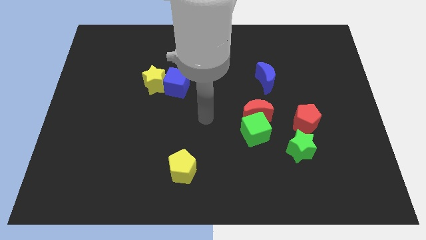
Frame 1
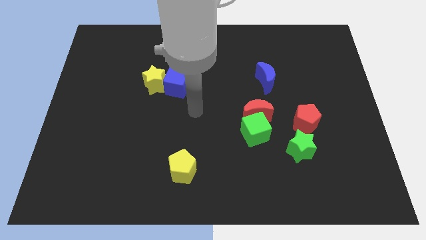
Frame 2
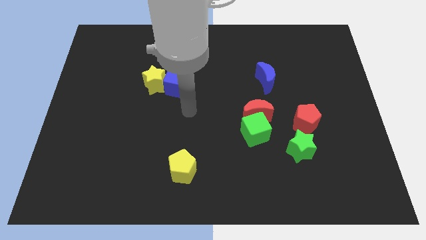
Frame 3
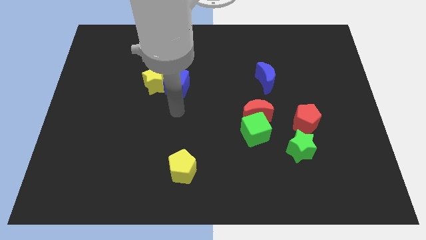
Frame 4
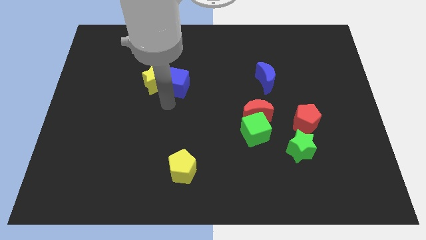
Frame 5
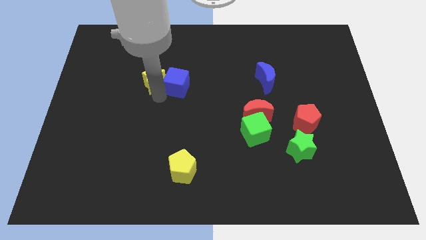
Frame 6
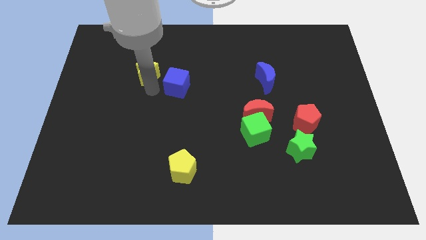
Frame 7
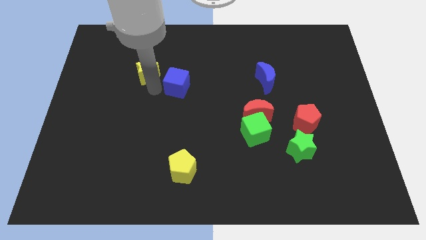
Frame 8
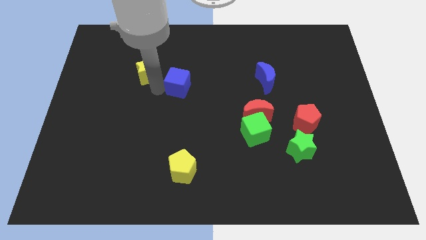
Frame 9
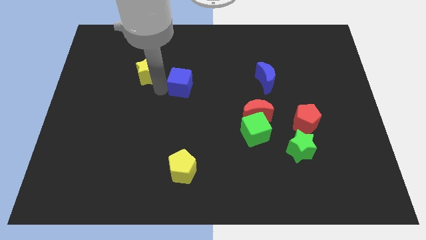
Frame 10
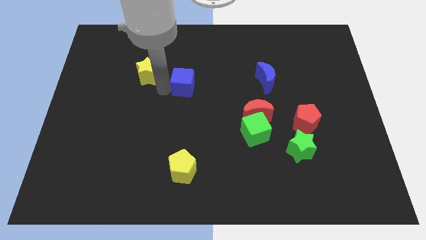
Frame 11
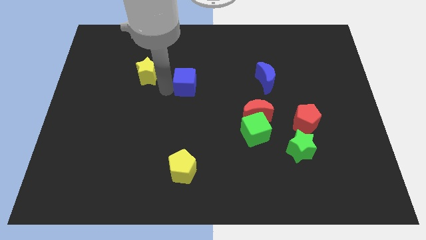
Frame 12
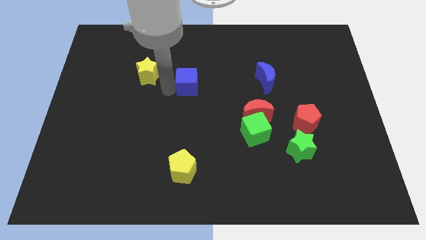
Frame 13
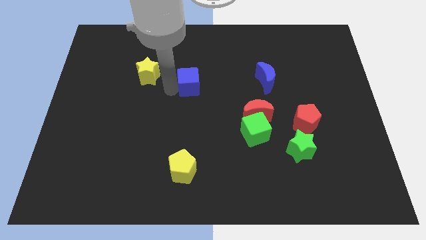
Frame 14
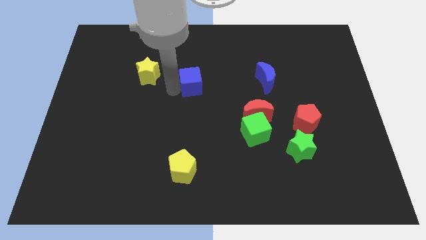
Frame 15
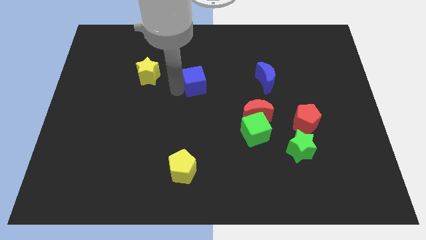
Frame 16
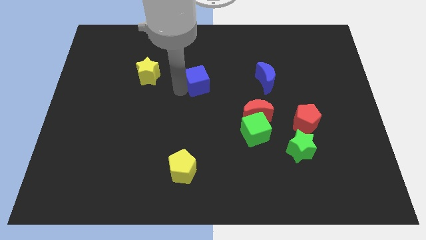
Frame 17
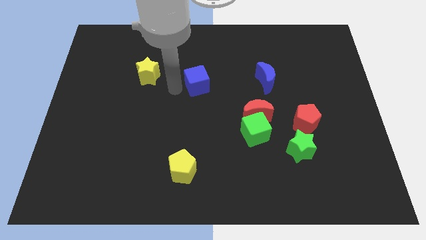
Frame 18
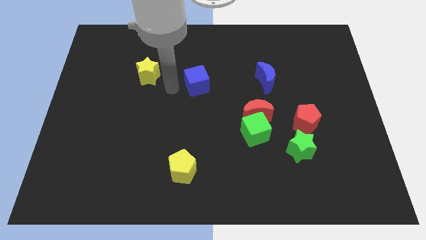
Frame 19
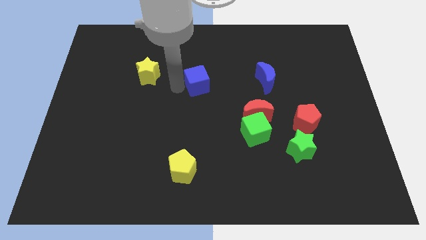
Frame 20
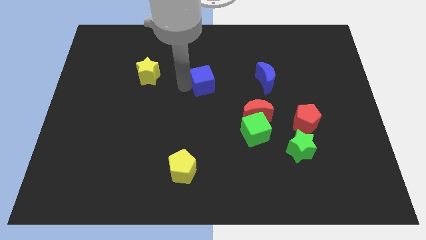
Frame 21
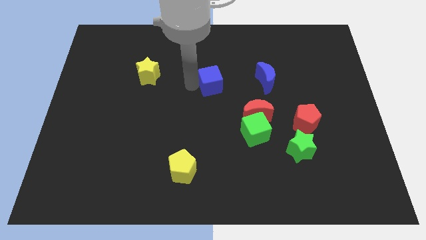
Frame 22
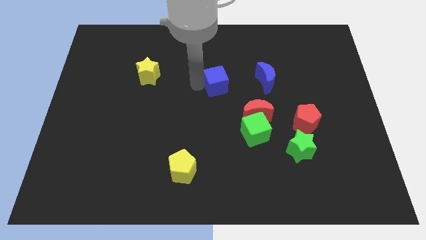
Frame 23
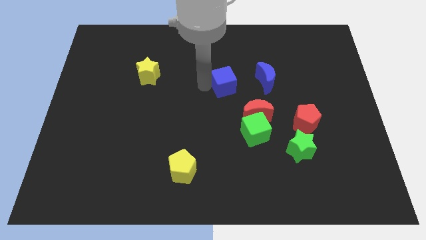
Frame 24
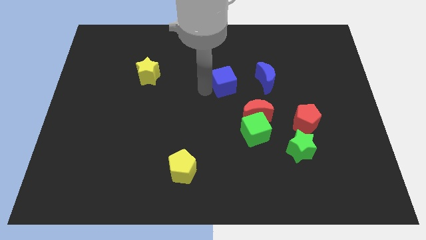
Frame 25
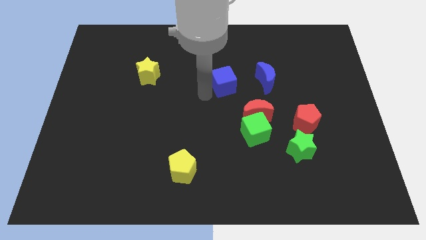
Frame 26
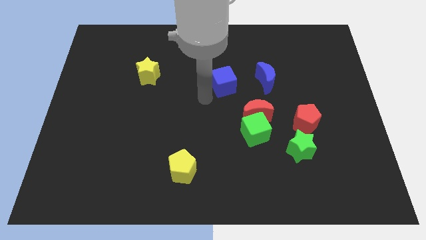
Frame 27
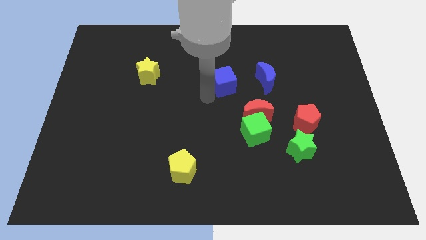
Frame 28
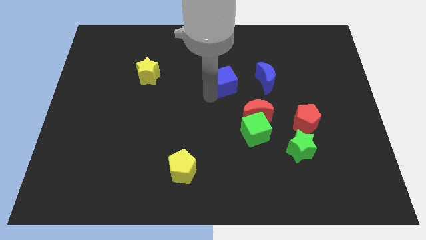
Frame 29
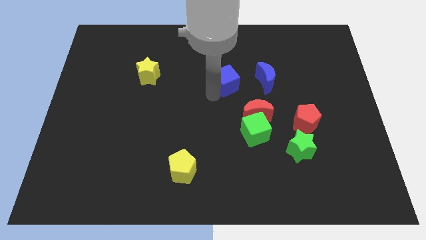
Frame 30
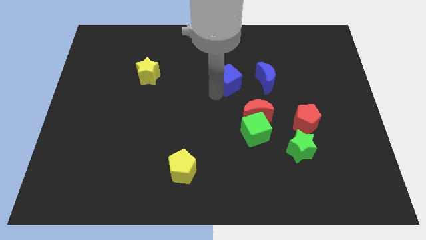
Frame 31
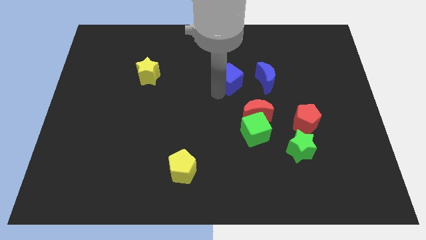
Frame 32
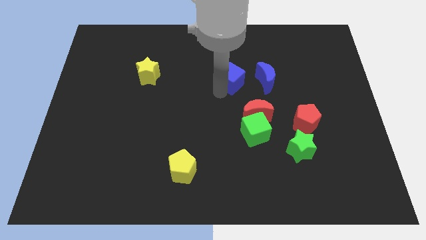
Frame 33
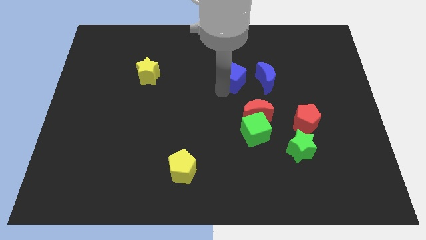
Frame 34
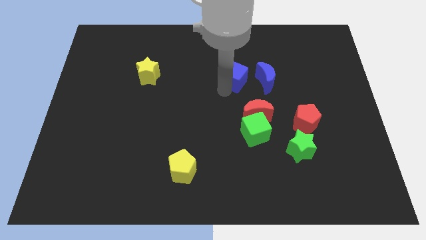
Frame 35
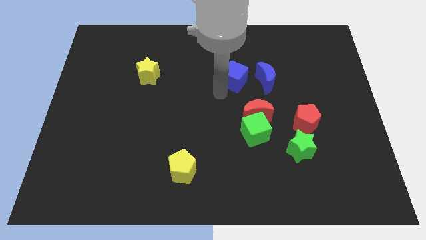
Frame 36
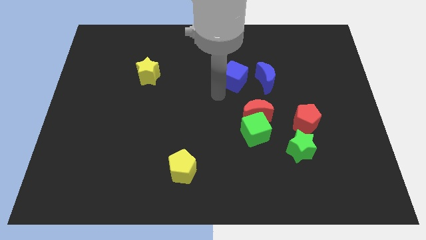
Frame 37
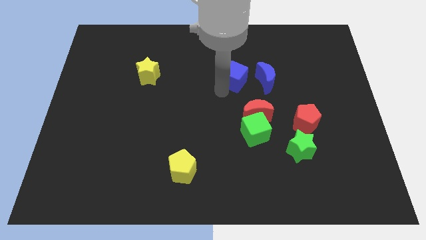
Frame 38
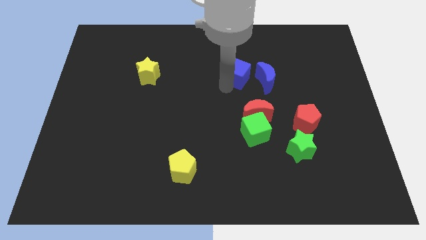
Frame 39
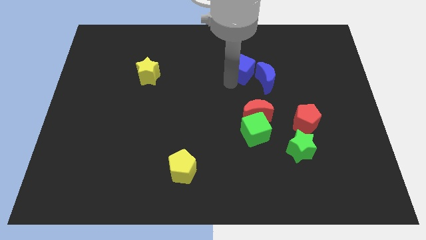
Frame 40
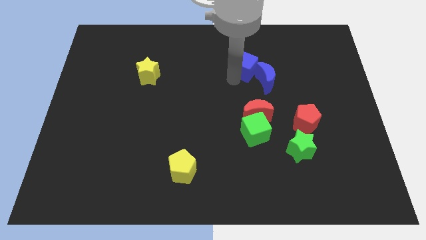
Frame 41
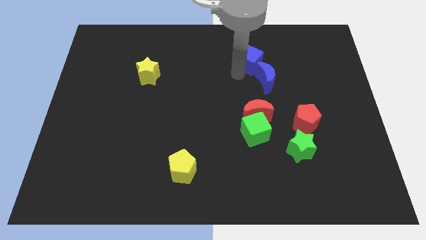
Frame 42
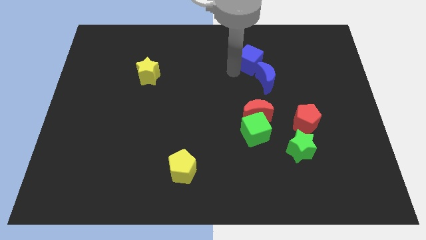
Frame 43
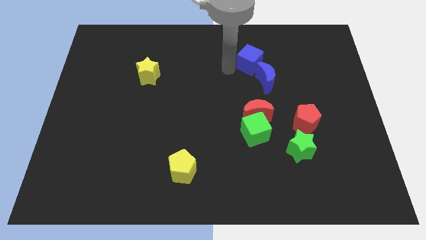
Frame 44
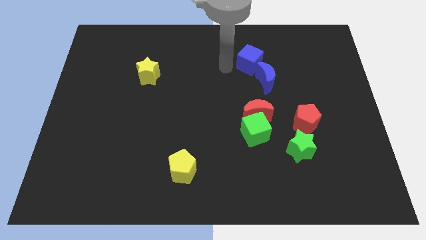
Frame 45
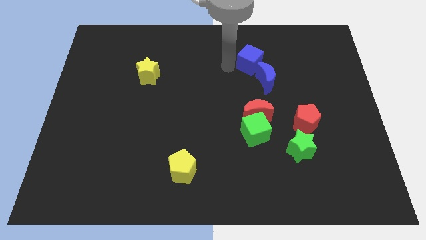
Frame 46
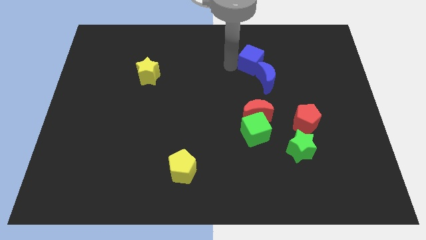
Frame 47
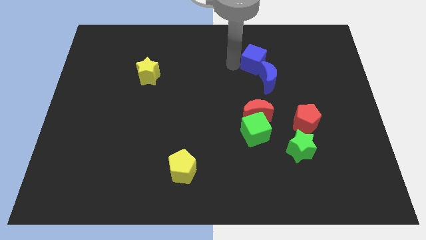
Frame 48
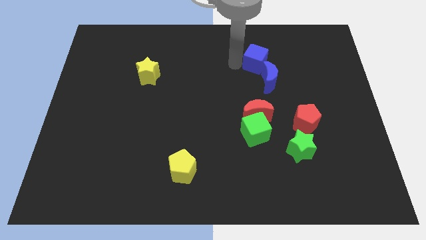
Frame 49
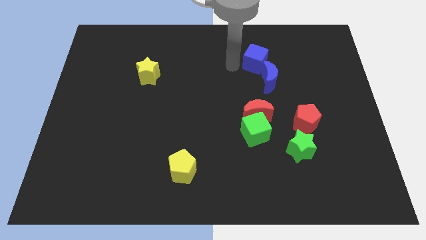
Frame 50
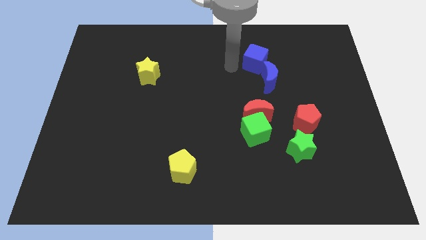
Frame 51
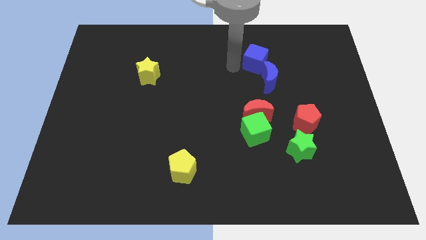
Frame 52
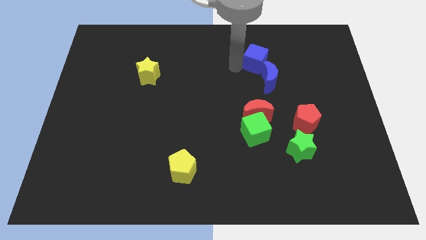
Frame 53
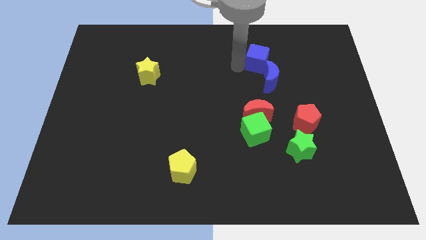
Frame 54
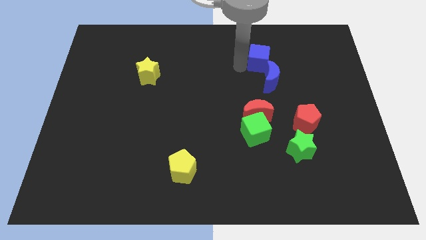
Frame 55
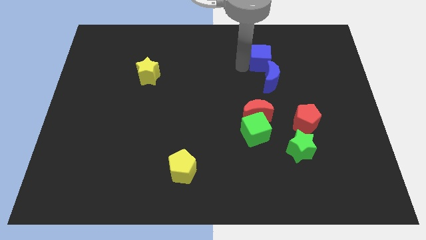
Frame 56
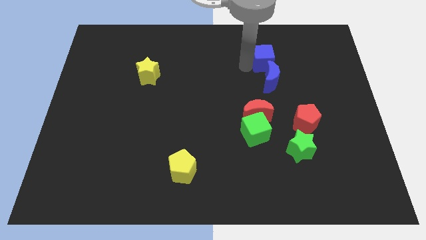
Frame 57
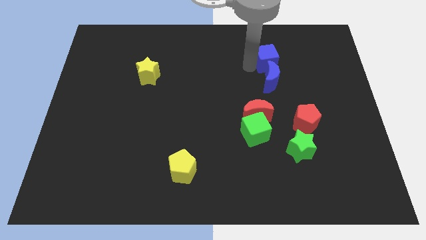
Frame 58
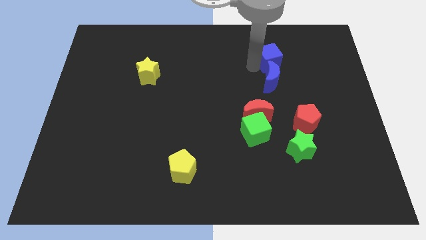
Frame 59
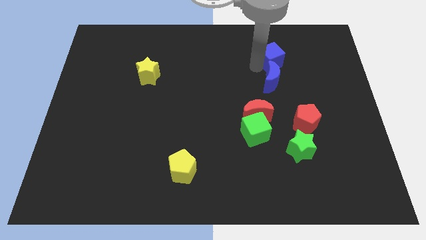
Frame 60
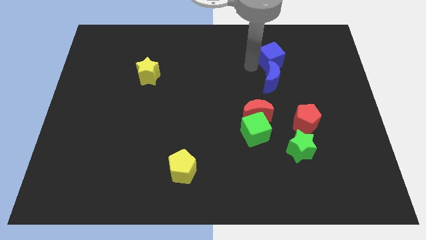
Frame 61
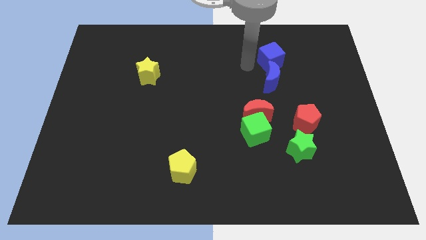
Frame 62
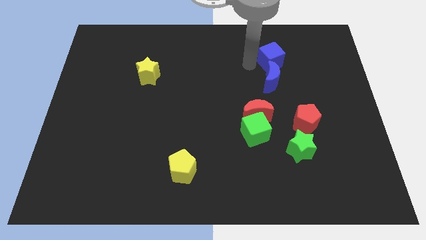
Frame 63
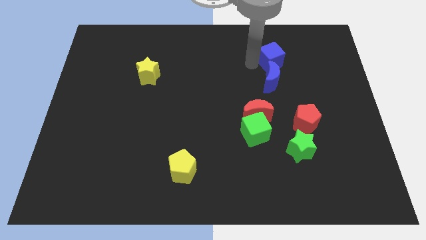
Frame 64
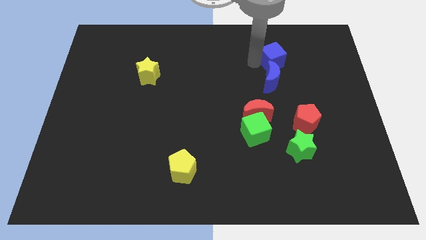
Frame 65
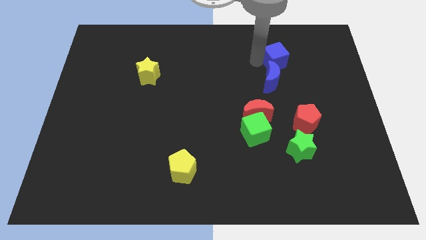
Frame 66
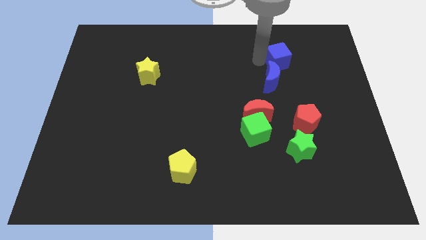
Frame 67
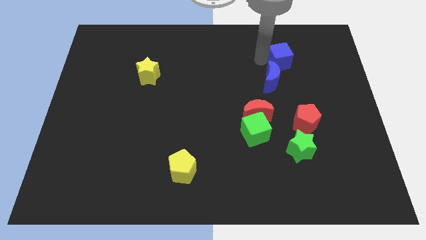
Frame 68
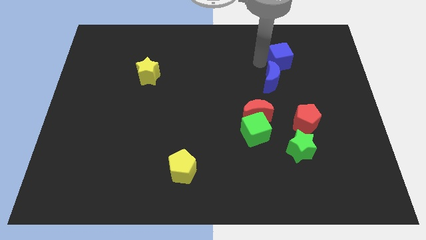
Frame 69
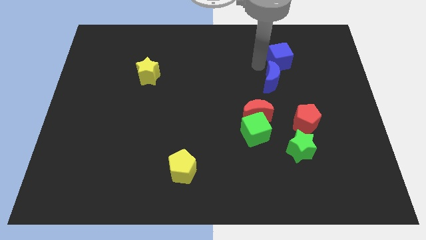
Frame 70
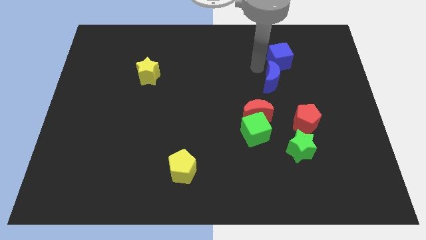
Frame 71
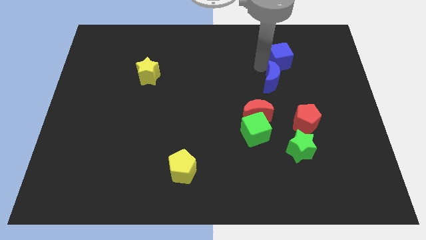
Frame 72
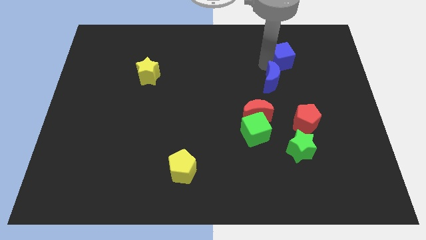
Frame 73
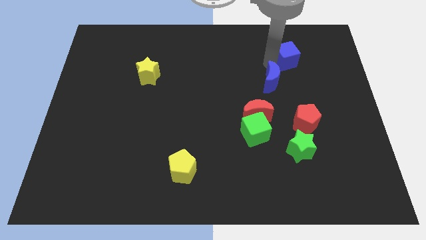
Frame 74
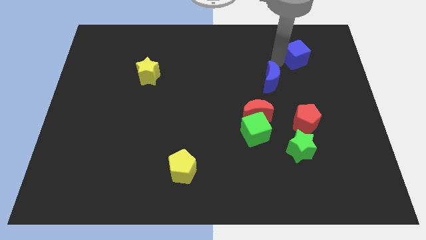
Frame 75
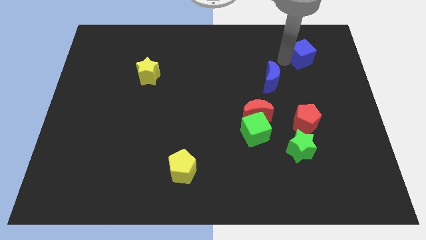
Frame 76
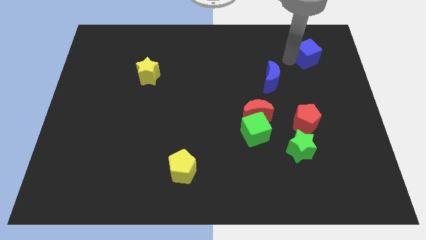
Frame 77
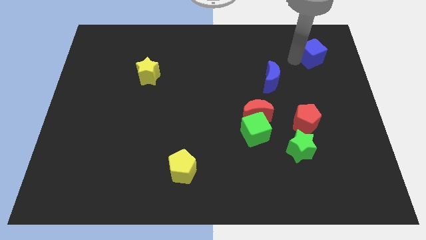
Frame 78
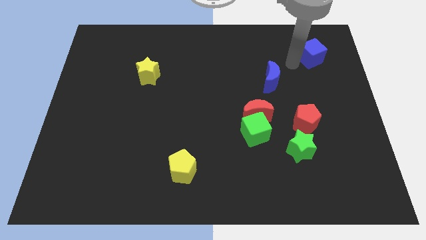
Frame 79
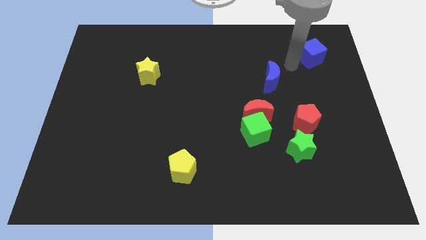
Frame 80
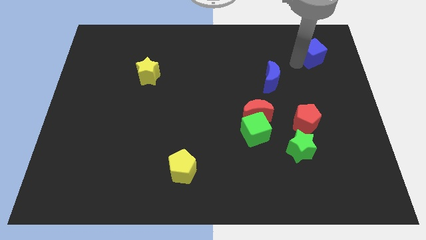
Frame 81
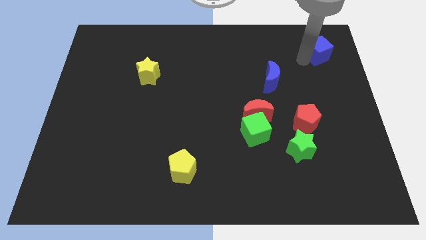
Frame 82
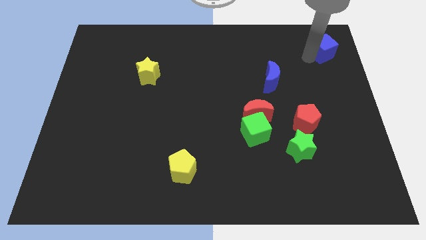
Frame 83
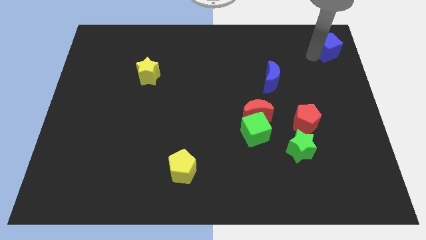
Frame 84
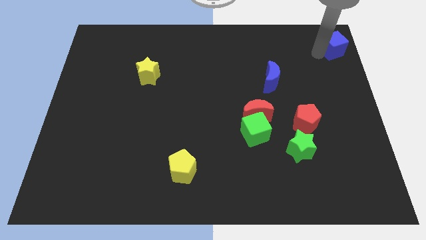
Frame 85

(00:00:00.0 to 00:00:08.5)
slide the blue cube to the top right corner
